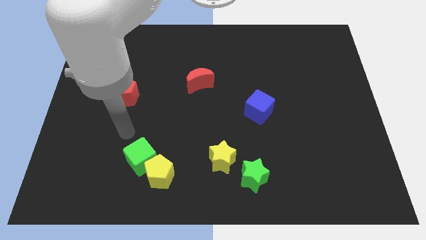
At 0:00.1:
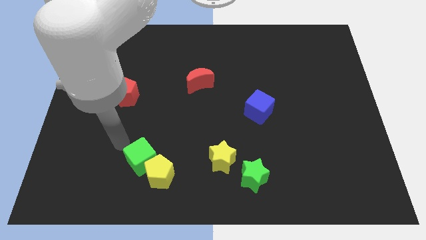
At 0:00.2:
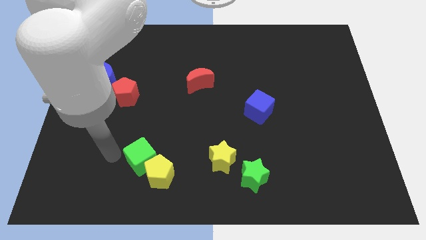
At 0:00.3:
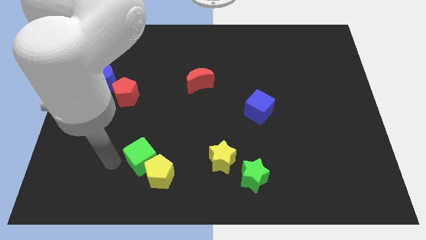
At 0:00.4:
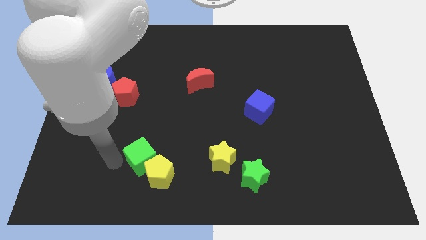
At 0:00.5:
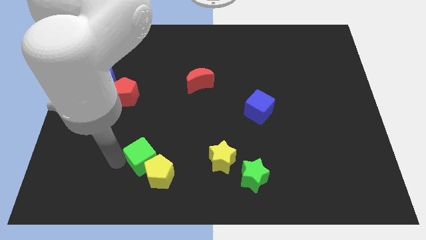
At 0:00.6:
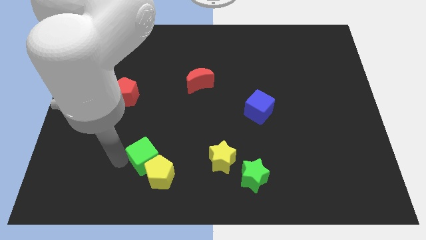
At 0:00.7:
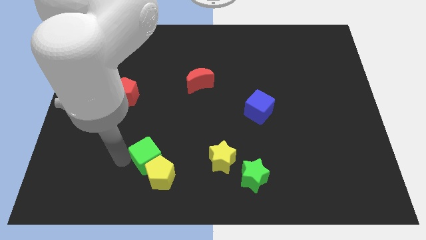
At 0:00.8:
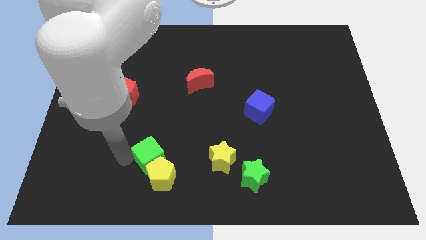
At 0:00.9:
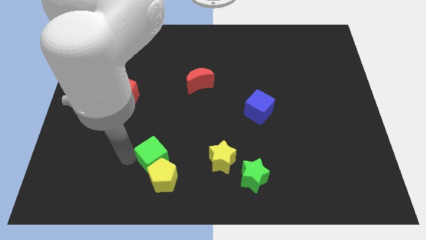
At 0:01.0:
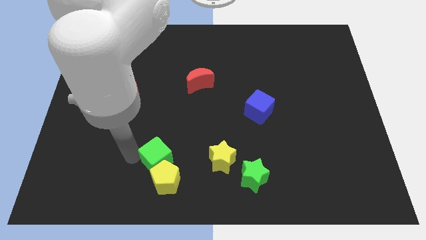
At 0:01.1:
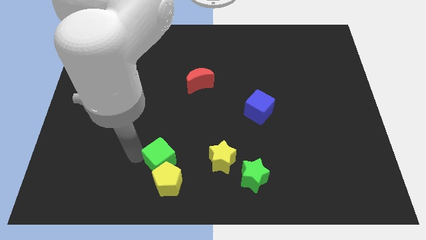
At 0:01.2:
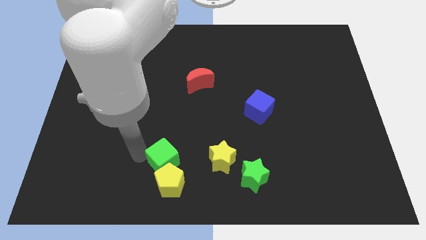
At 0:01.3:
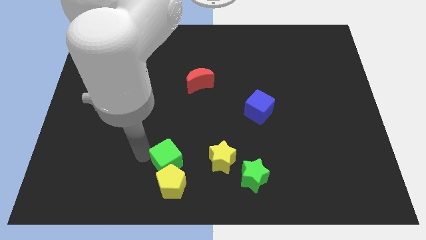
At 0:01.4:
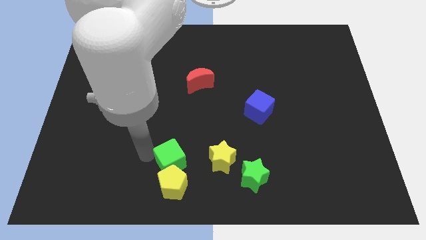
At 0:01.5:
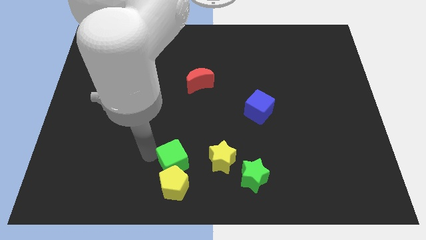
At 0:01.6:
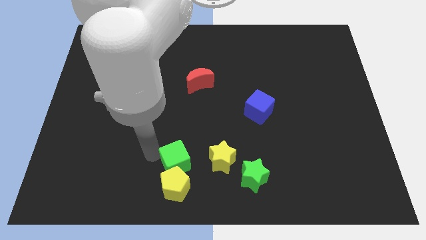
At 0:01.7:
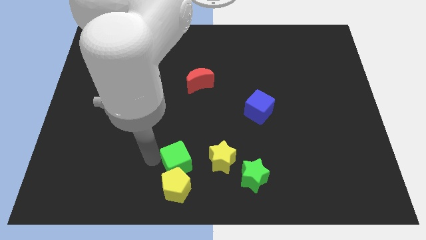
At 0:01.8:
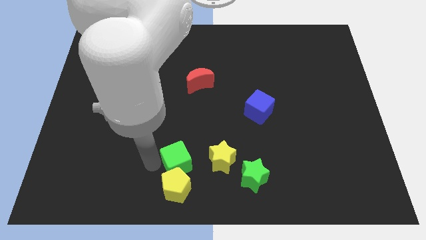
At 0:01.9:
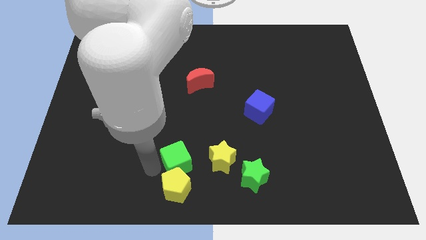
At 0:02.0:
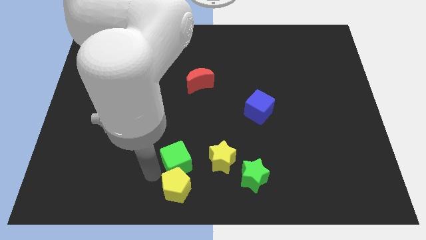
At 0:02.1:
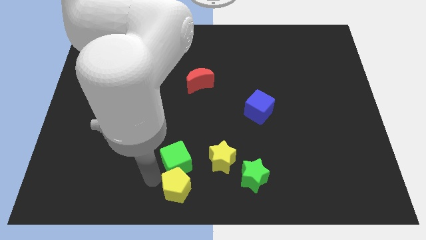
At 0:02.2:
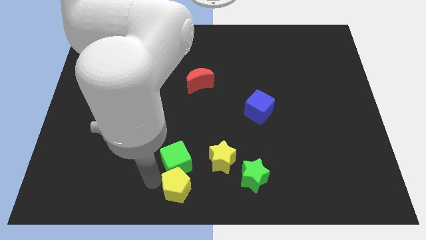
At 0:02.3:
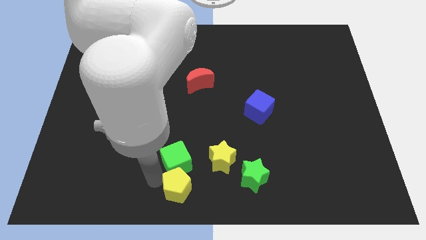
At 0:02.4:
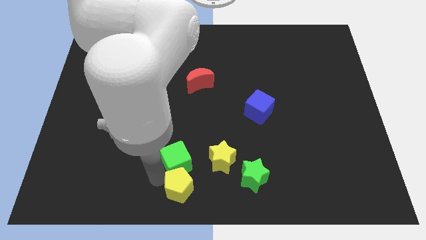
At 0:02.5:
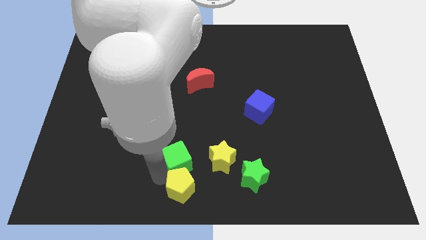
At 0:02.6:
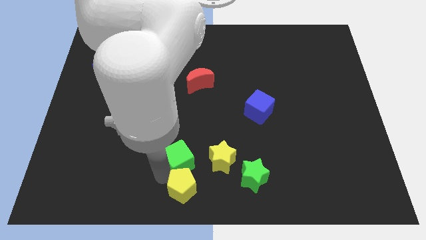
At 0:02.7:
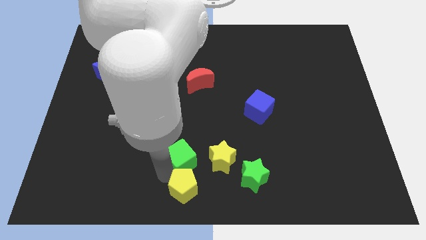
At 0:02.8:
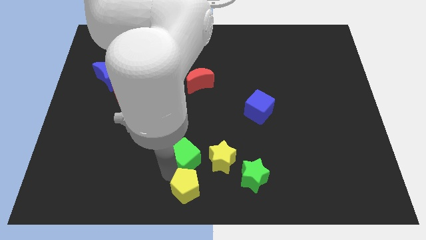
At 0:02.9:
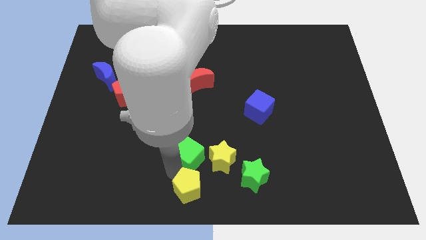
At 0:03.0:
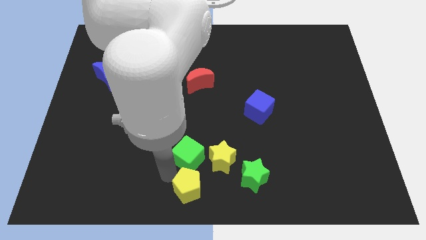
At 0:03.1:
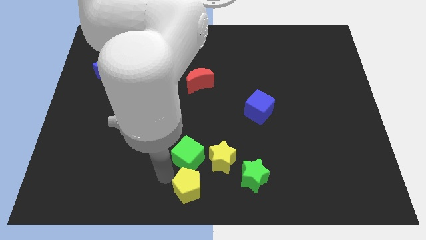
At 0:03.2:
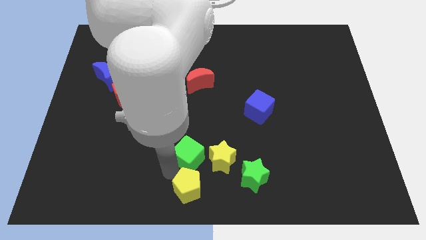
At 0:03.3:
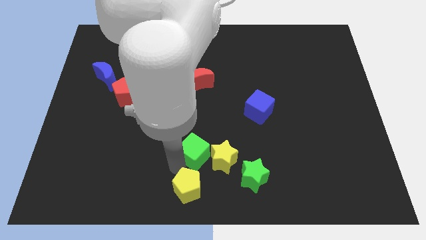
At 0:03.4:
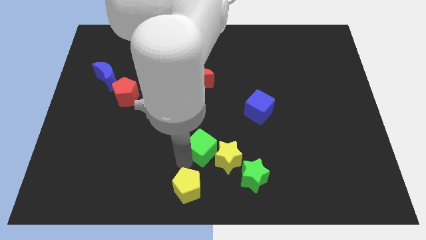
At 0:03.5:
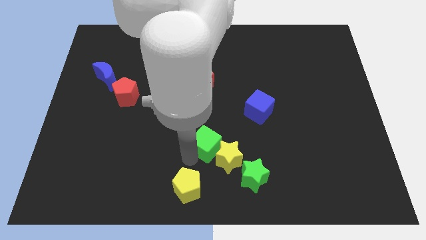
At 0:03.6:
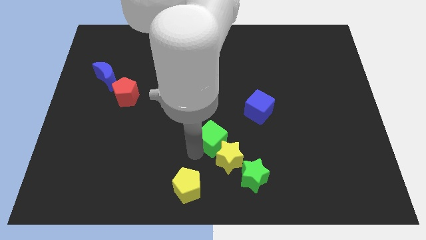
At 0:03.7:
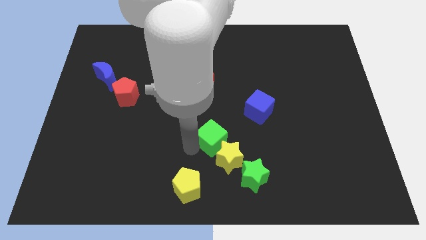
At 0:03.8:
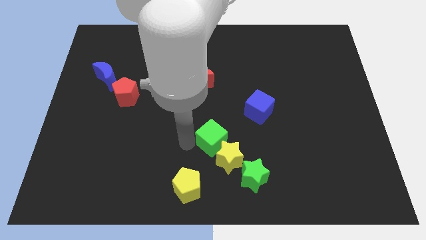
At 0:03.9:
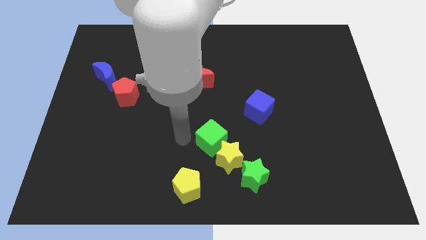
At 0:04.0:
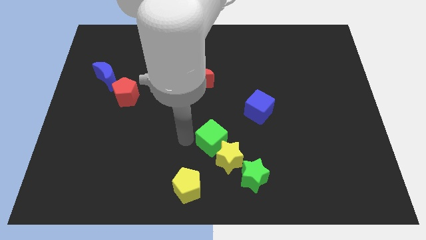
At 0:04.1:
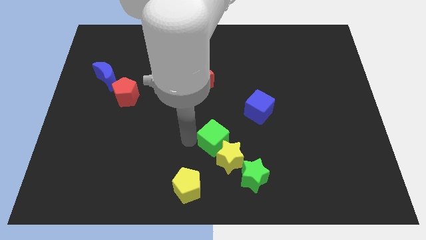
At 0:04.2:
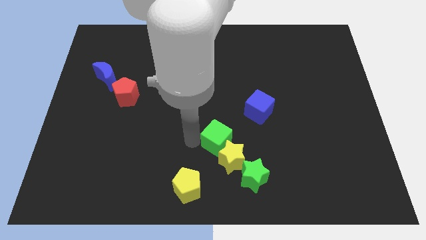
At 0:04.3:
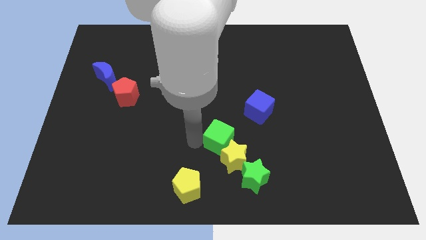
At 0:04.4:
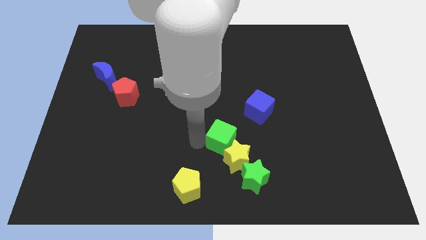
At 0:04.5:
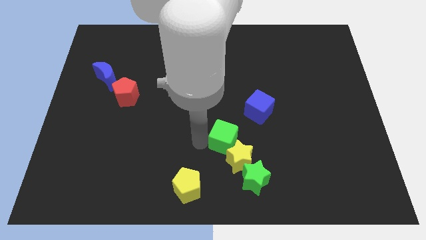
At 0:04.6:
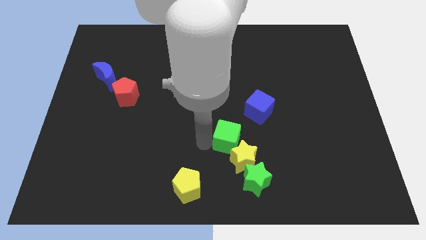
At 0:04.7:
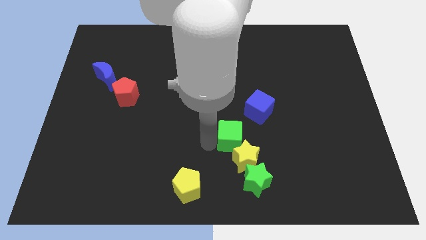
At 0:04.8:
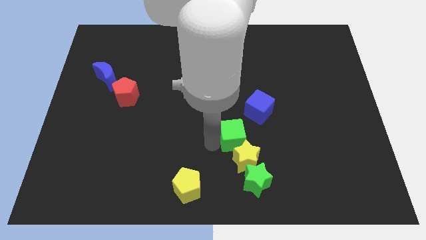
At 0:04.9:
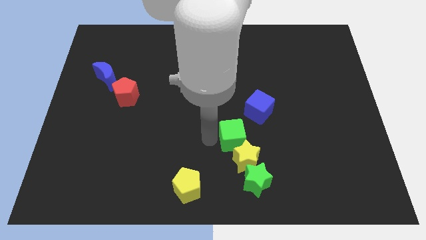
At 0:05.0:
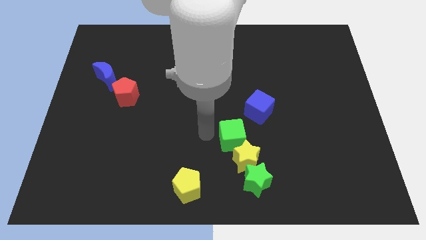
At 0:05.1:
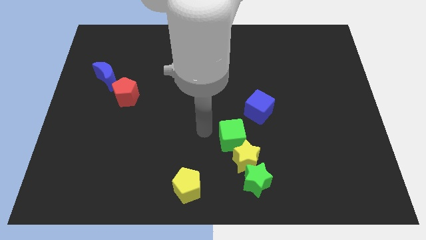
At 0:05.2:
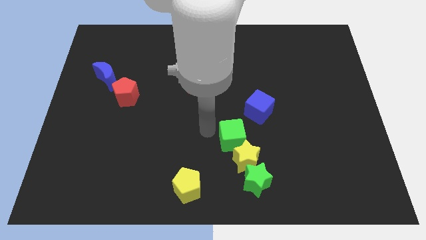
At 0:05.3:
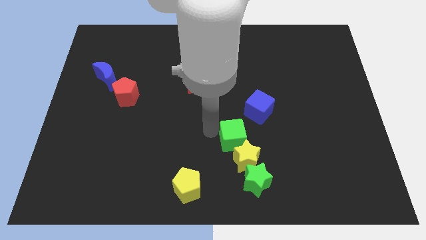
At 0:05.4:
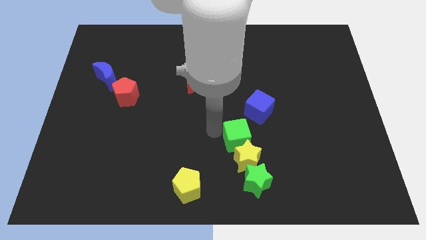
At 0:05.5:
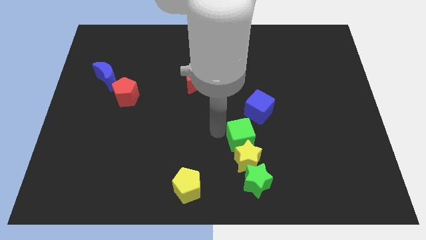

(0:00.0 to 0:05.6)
move the green cube right

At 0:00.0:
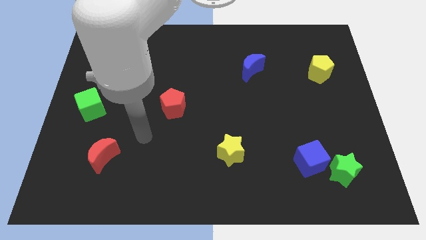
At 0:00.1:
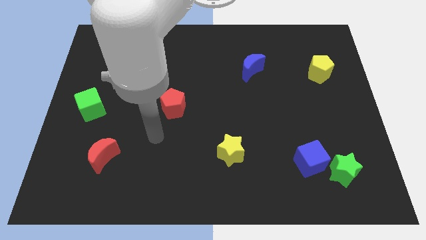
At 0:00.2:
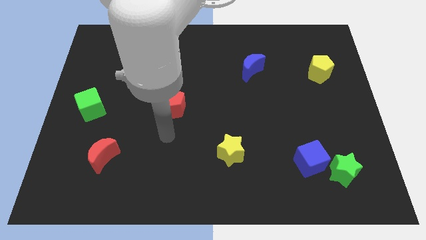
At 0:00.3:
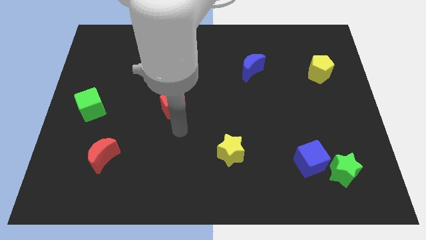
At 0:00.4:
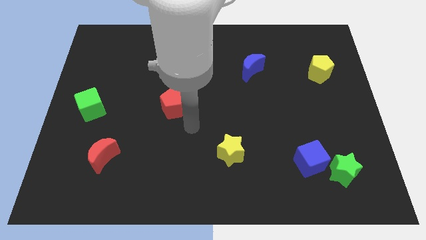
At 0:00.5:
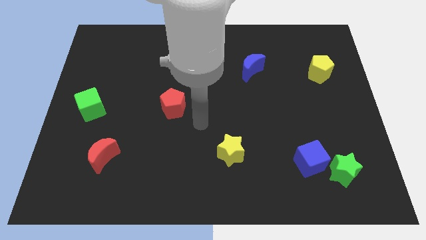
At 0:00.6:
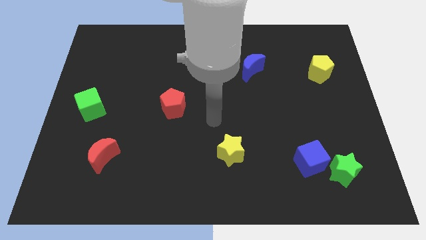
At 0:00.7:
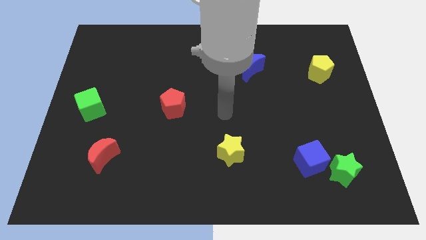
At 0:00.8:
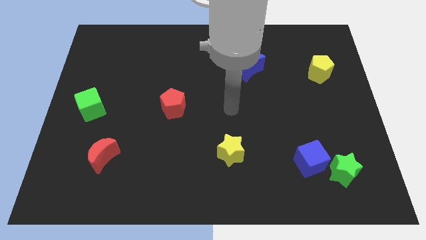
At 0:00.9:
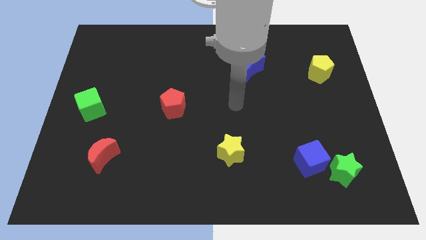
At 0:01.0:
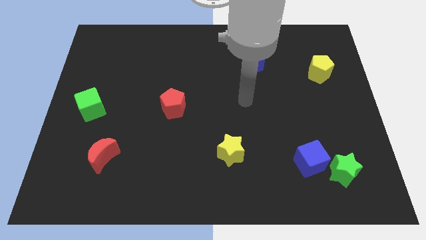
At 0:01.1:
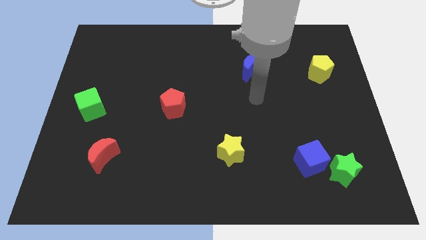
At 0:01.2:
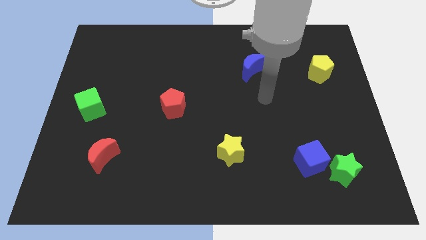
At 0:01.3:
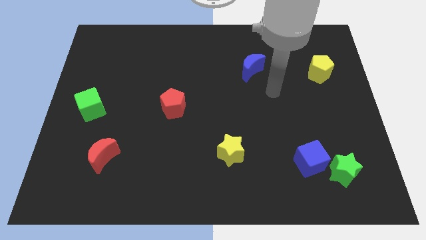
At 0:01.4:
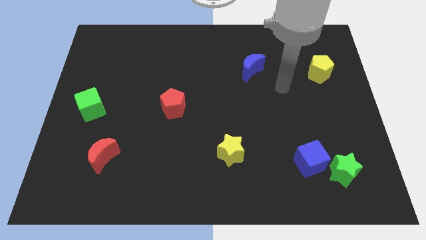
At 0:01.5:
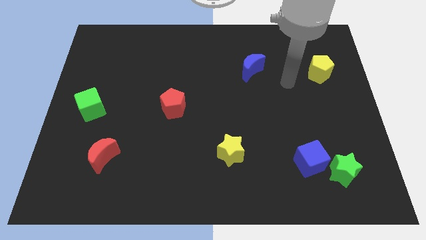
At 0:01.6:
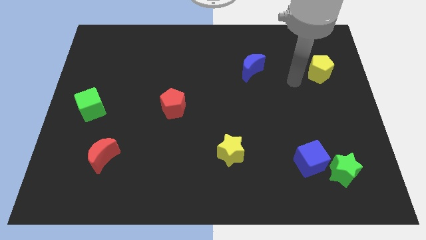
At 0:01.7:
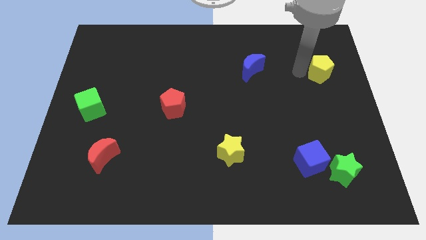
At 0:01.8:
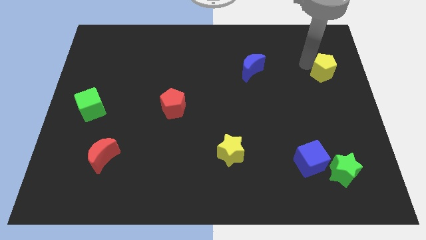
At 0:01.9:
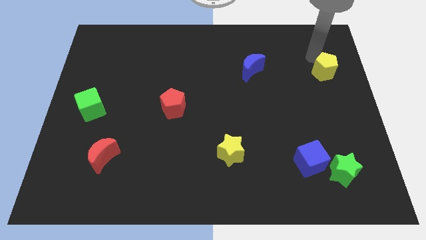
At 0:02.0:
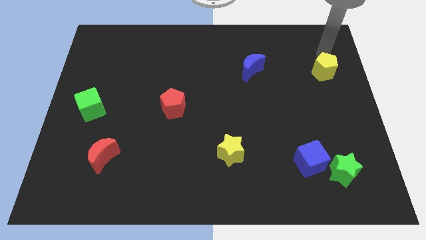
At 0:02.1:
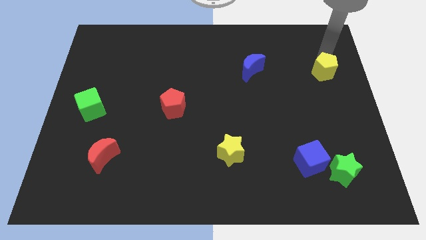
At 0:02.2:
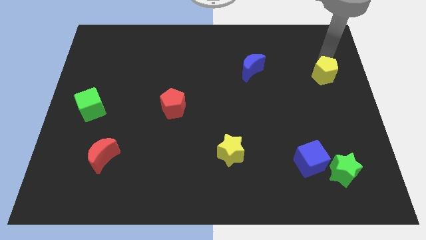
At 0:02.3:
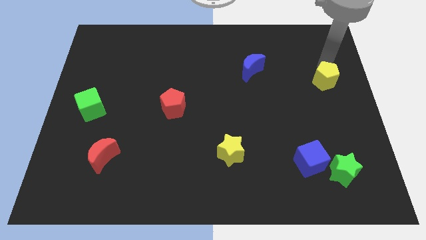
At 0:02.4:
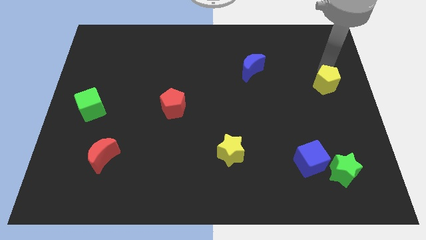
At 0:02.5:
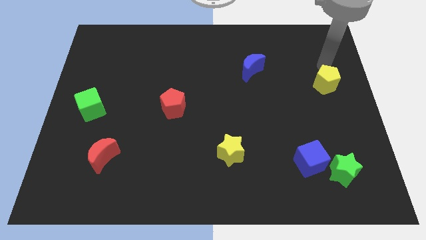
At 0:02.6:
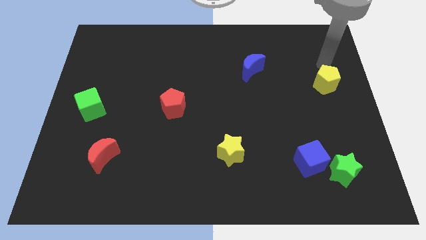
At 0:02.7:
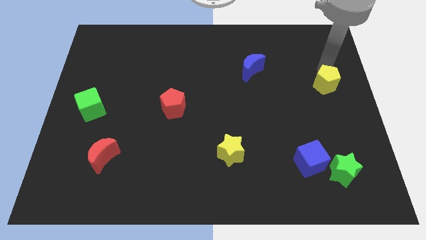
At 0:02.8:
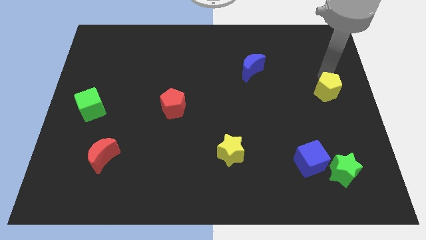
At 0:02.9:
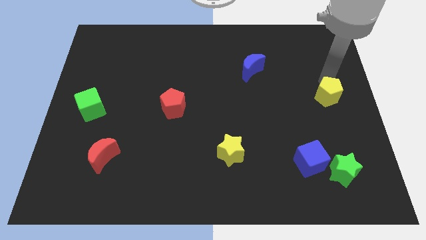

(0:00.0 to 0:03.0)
slide the yellow pentagon slightly downwards

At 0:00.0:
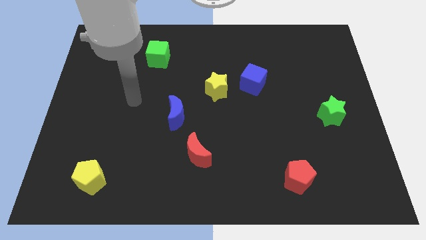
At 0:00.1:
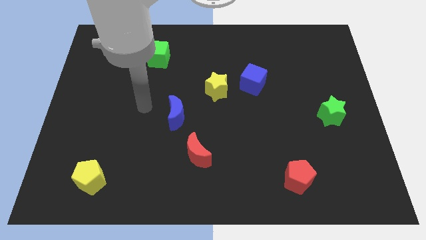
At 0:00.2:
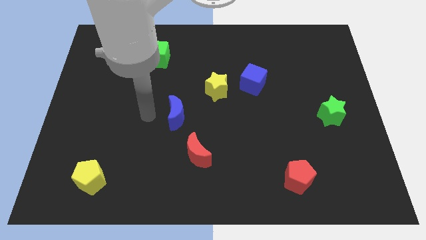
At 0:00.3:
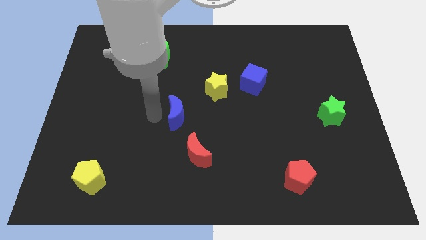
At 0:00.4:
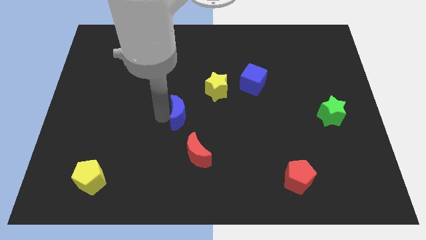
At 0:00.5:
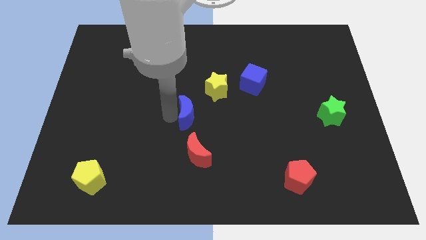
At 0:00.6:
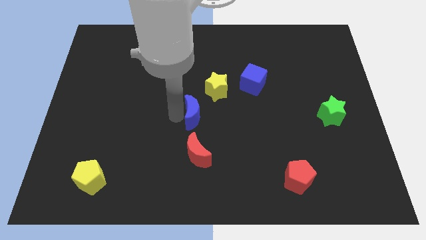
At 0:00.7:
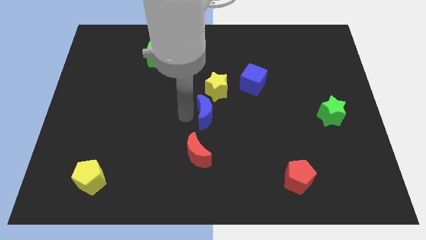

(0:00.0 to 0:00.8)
slightly move the blue moon to the right
